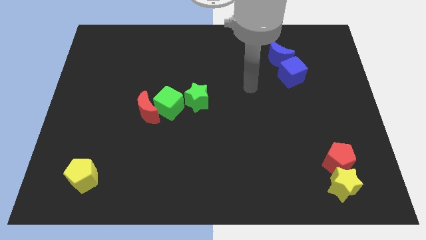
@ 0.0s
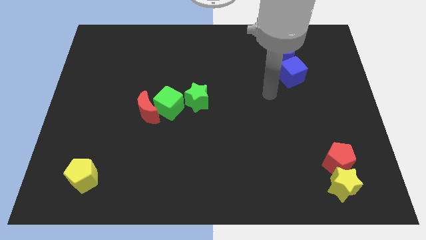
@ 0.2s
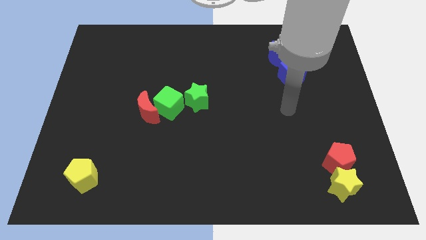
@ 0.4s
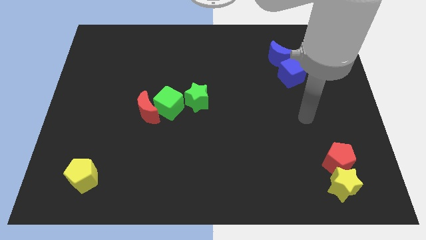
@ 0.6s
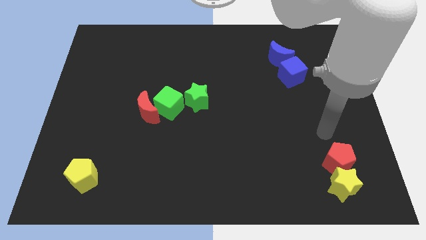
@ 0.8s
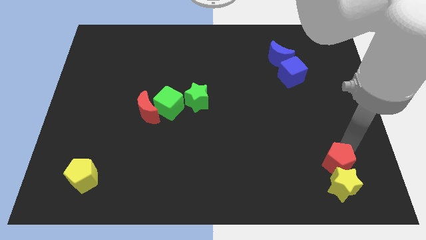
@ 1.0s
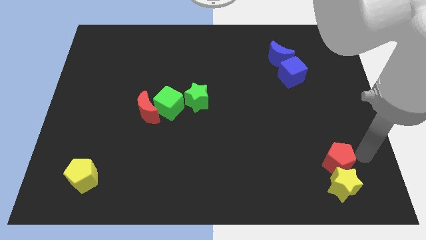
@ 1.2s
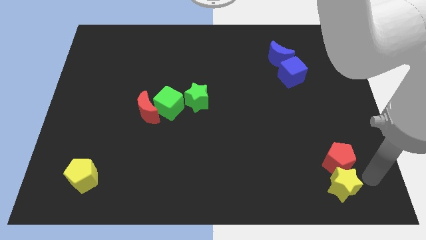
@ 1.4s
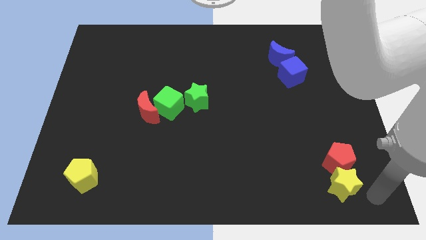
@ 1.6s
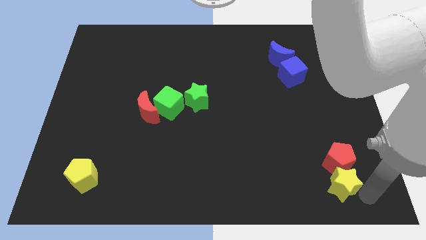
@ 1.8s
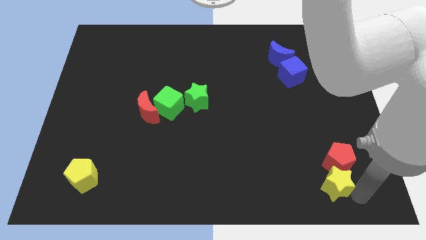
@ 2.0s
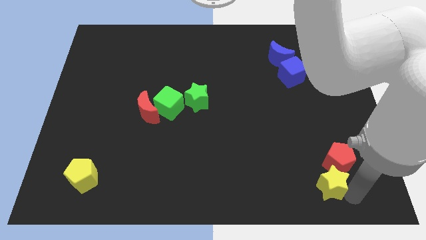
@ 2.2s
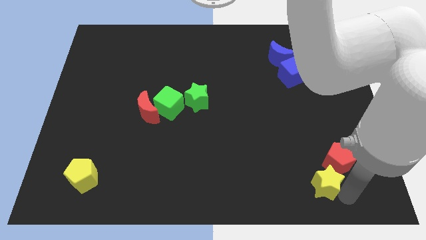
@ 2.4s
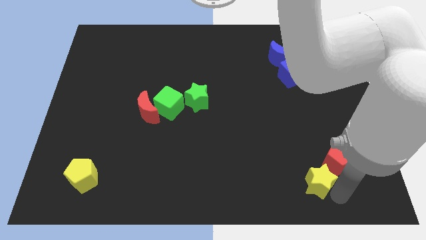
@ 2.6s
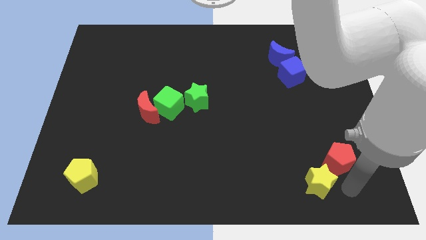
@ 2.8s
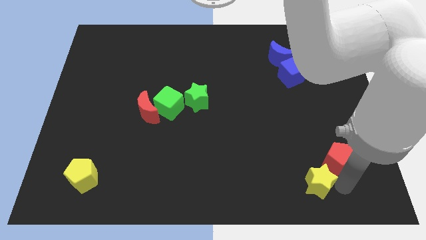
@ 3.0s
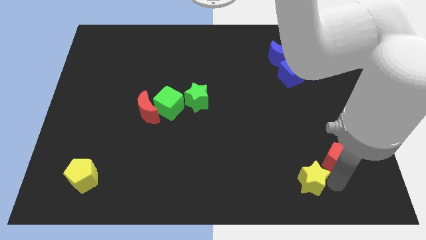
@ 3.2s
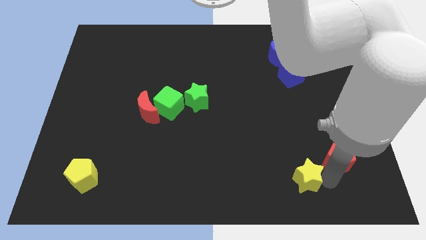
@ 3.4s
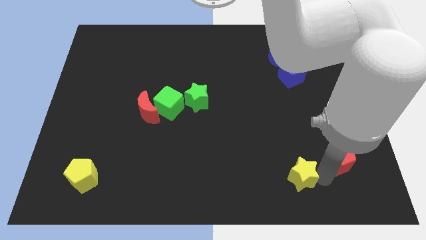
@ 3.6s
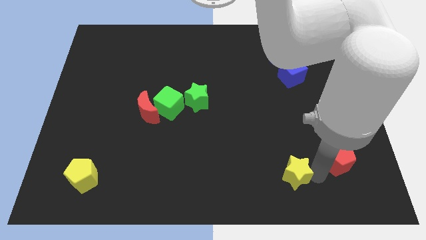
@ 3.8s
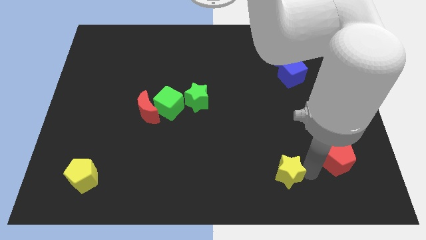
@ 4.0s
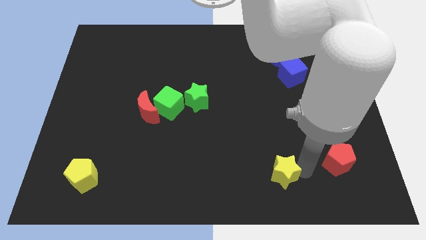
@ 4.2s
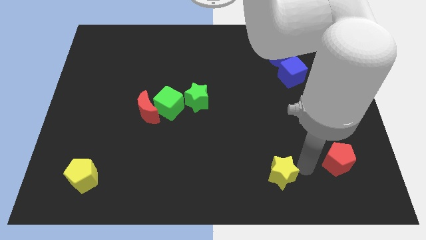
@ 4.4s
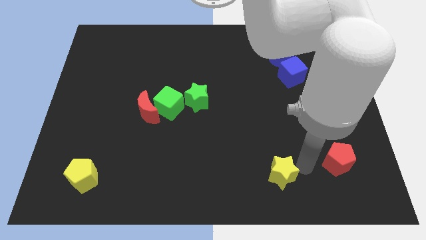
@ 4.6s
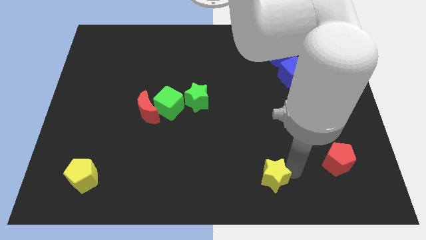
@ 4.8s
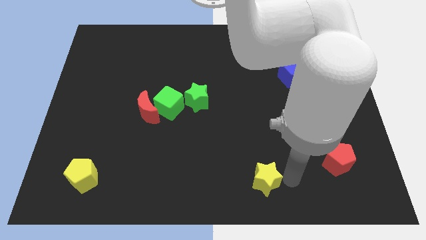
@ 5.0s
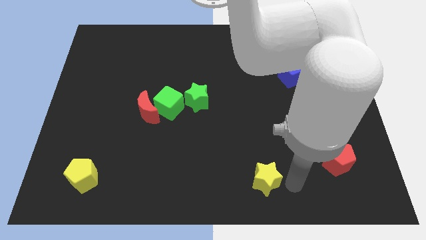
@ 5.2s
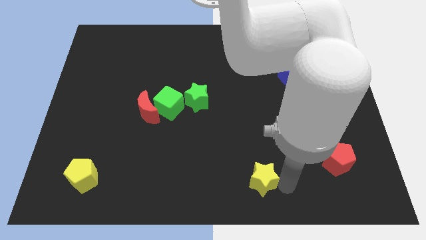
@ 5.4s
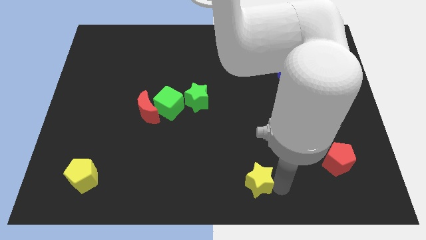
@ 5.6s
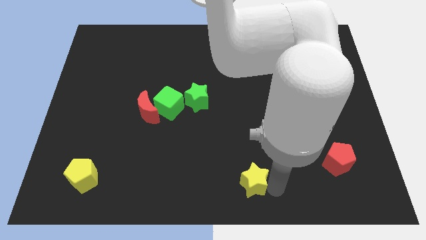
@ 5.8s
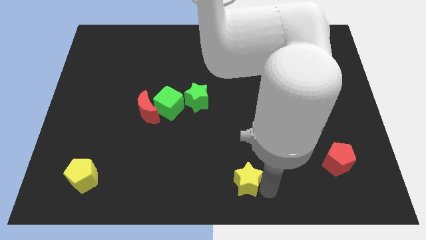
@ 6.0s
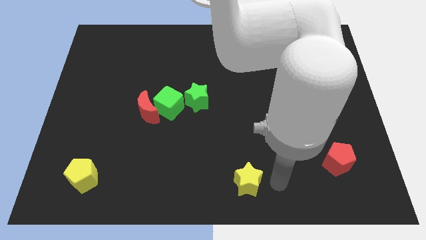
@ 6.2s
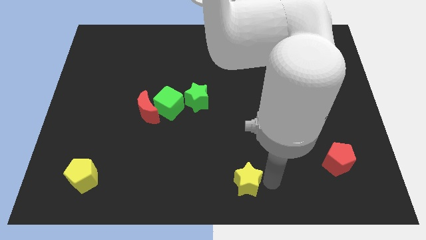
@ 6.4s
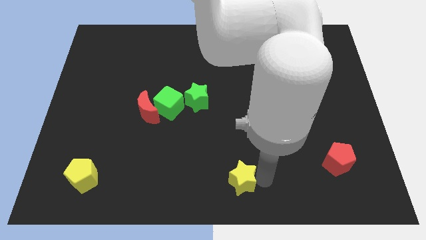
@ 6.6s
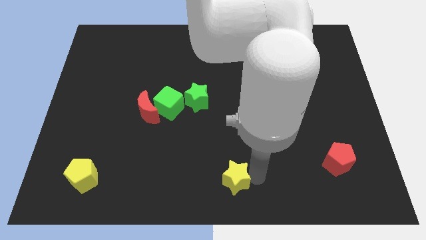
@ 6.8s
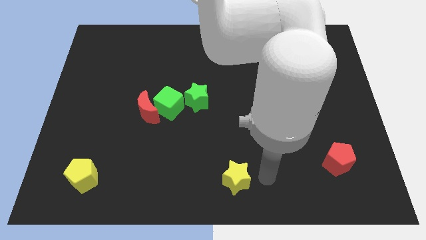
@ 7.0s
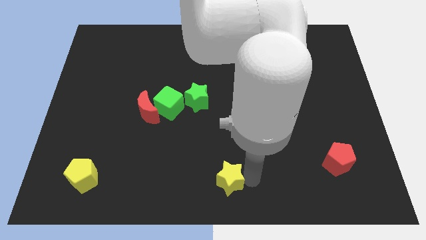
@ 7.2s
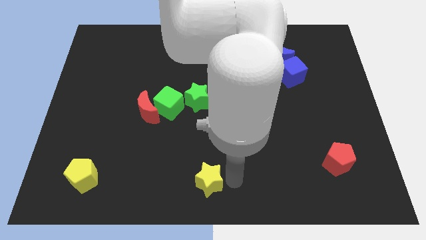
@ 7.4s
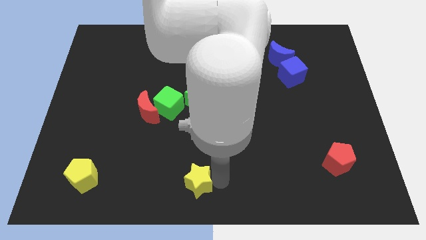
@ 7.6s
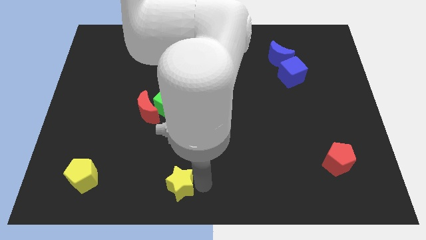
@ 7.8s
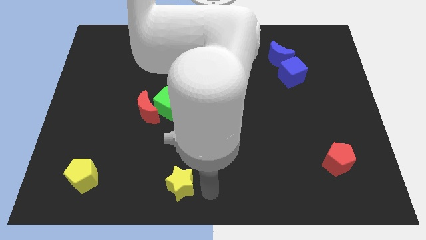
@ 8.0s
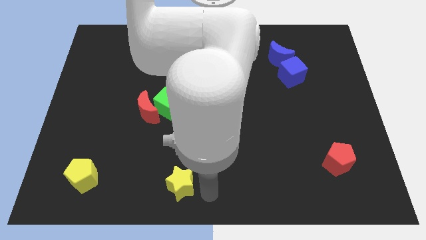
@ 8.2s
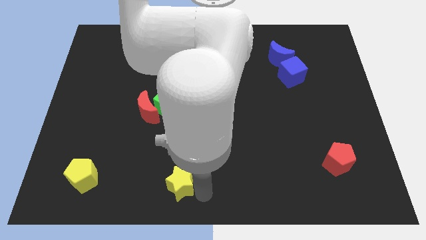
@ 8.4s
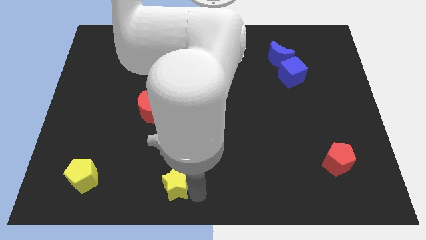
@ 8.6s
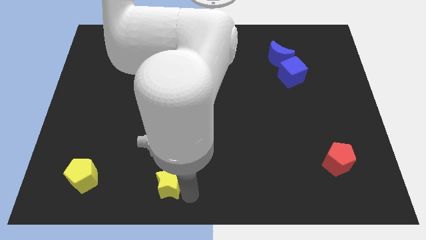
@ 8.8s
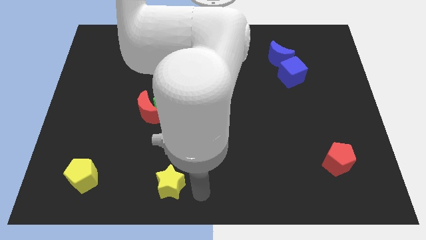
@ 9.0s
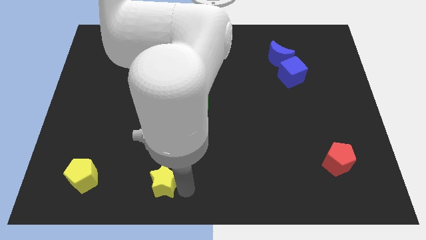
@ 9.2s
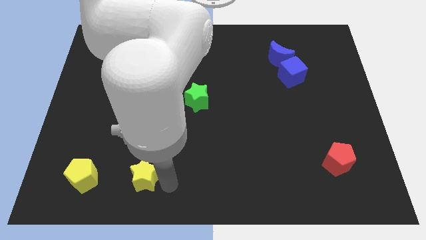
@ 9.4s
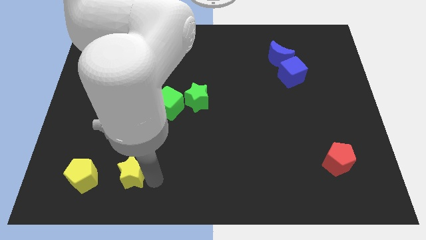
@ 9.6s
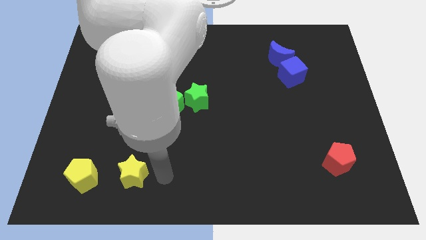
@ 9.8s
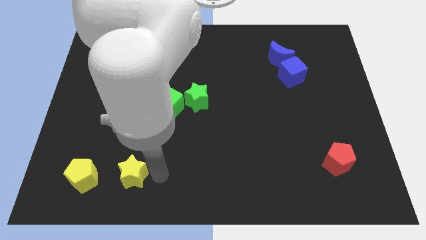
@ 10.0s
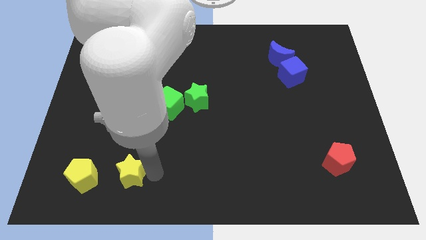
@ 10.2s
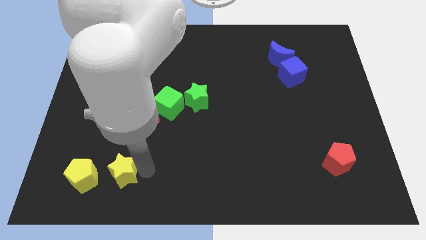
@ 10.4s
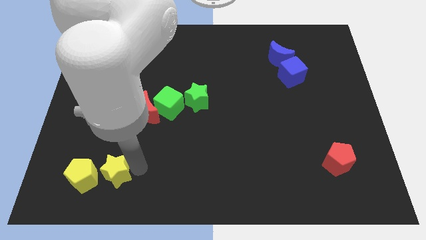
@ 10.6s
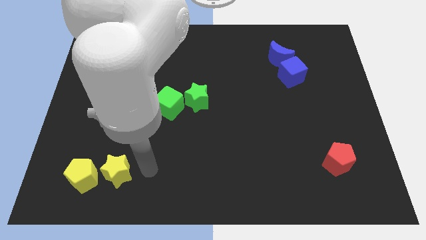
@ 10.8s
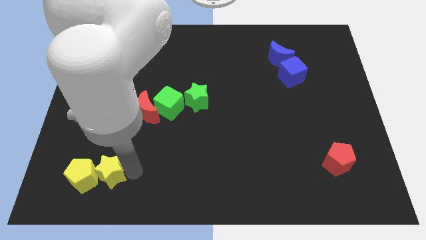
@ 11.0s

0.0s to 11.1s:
put the yellow star close to the yellow pentagon

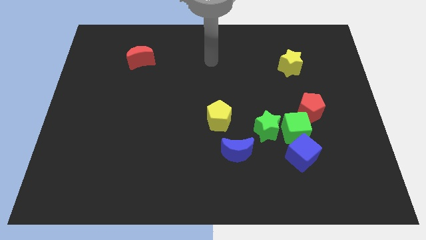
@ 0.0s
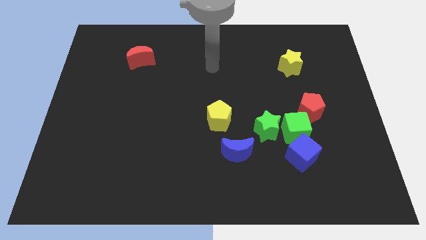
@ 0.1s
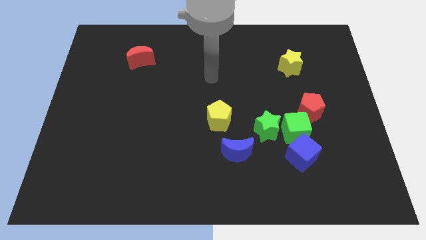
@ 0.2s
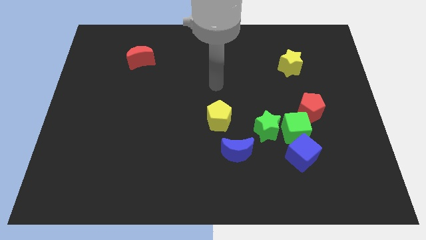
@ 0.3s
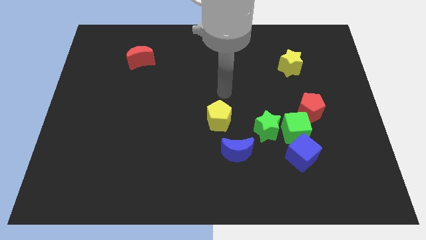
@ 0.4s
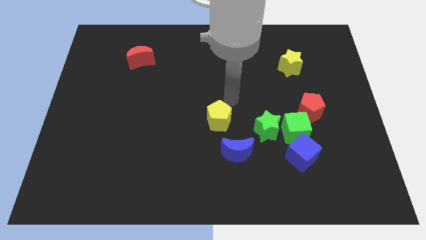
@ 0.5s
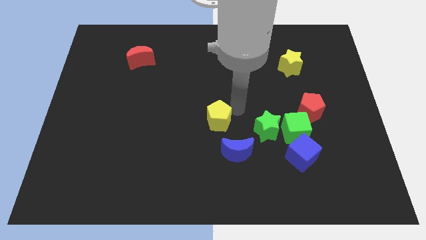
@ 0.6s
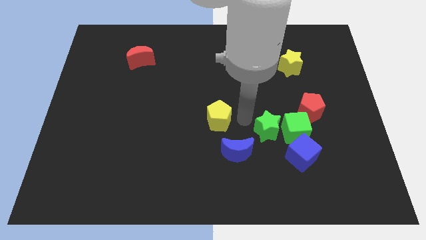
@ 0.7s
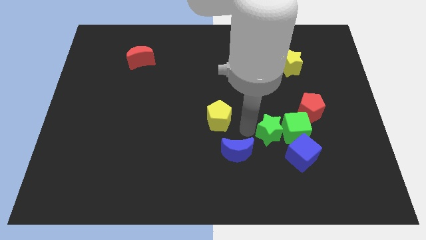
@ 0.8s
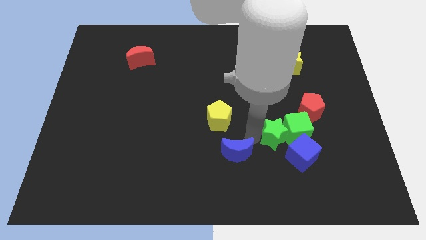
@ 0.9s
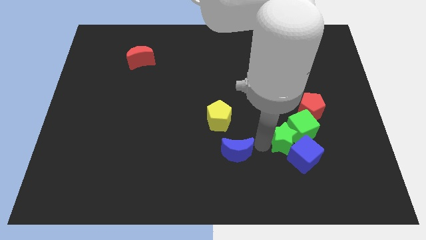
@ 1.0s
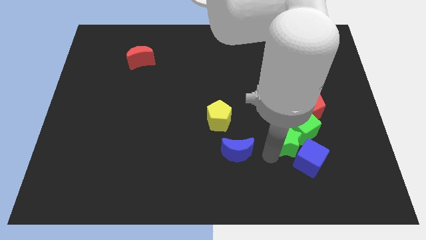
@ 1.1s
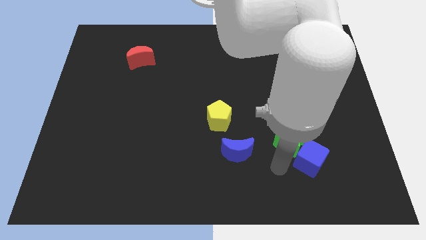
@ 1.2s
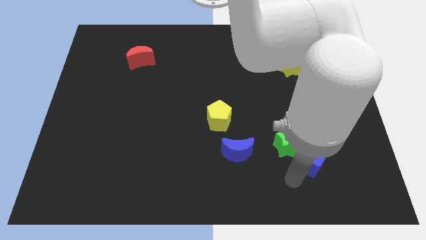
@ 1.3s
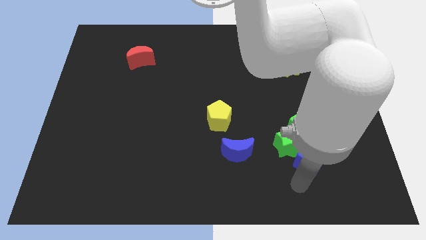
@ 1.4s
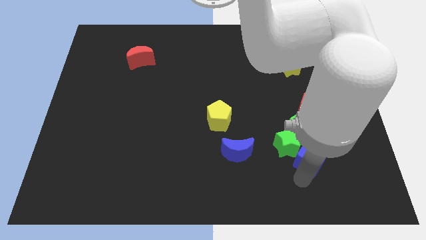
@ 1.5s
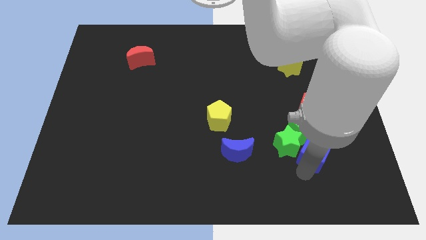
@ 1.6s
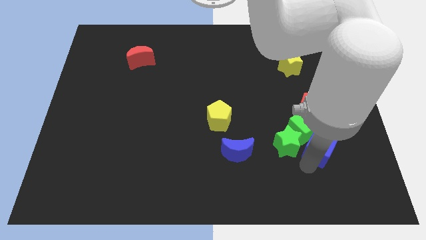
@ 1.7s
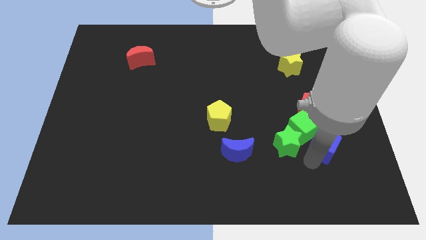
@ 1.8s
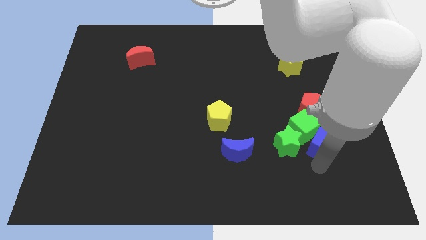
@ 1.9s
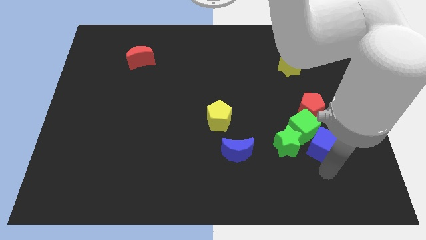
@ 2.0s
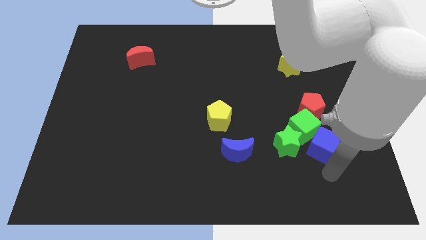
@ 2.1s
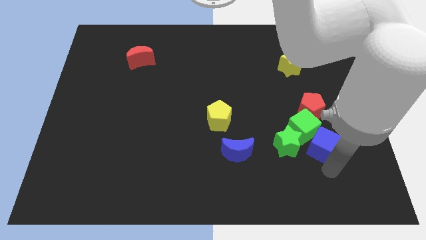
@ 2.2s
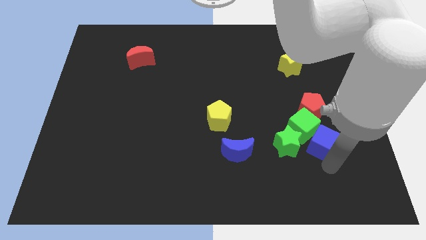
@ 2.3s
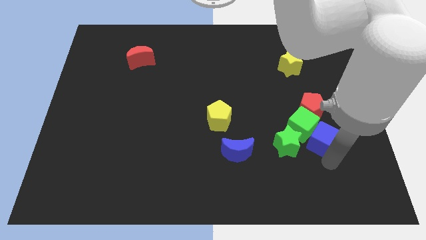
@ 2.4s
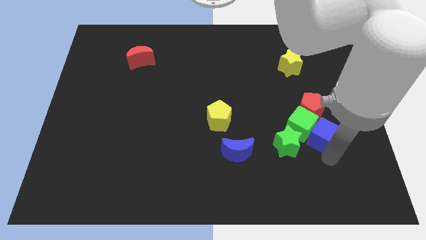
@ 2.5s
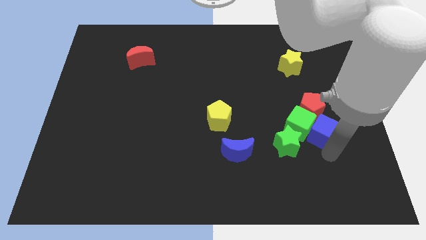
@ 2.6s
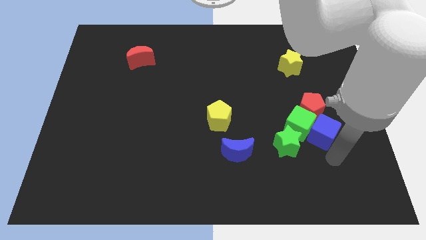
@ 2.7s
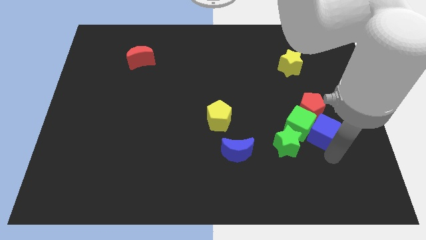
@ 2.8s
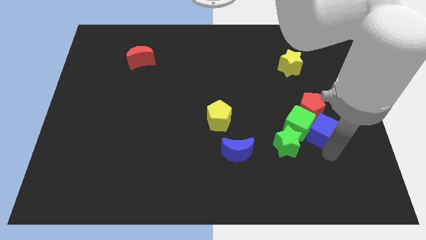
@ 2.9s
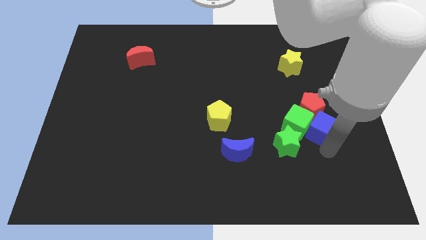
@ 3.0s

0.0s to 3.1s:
slide the blue cube close to the red pentagon
